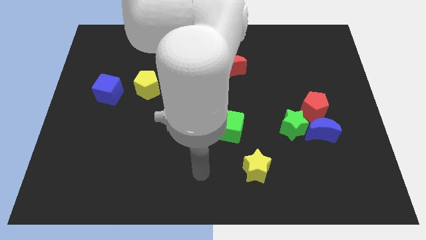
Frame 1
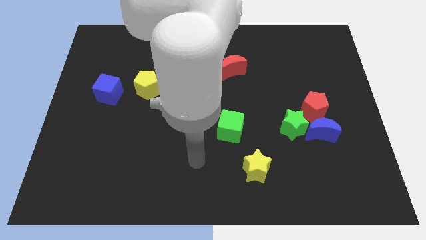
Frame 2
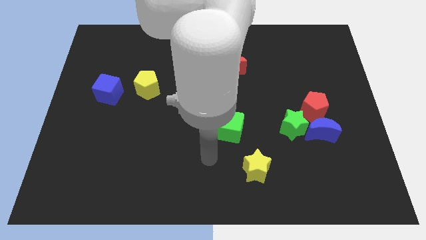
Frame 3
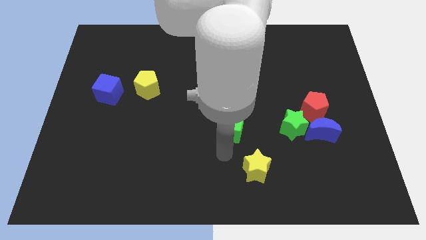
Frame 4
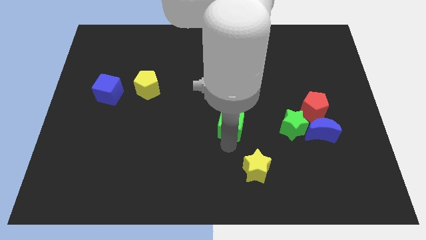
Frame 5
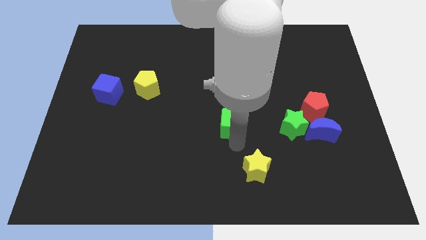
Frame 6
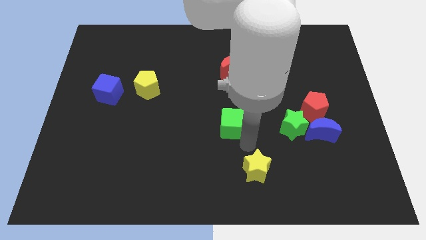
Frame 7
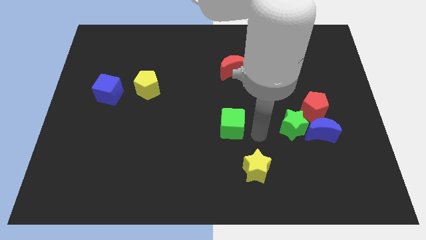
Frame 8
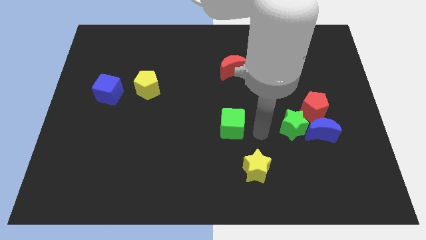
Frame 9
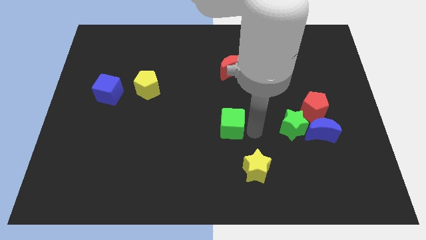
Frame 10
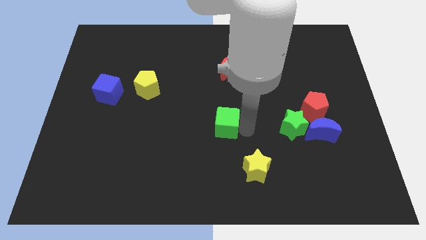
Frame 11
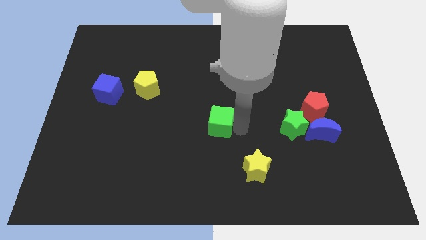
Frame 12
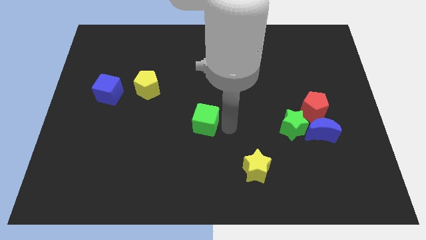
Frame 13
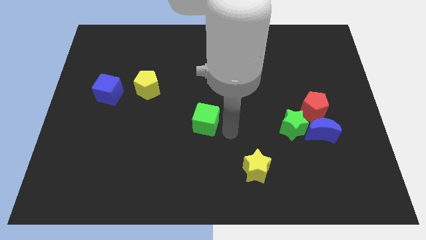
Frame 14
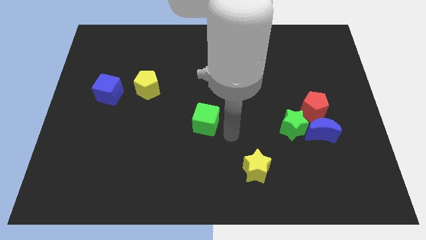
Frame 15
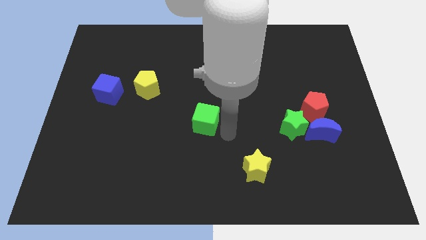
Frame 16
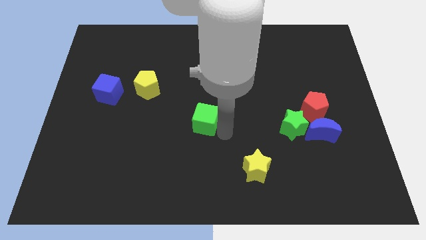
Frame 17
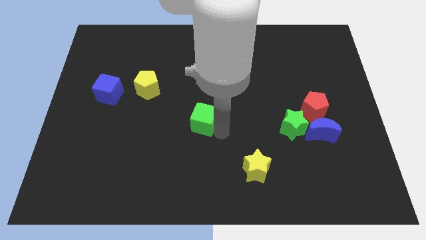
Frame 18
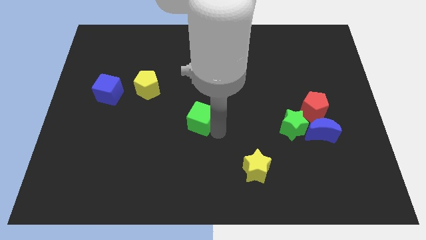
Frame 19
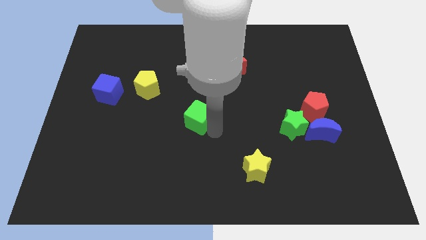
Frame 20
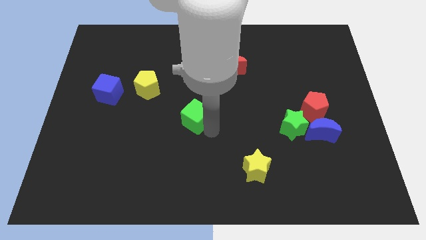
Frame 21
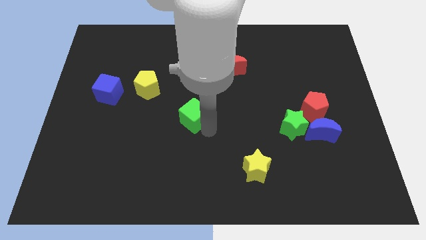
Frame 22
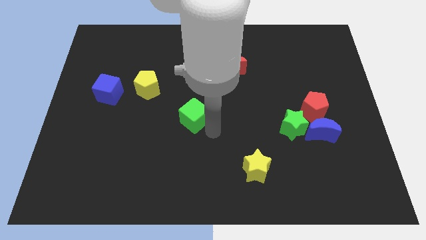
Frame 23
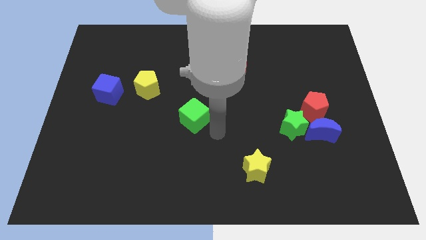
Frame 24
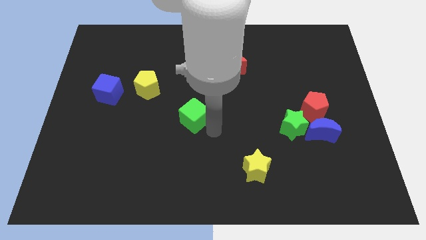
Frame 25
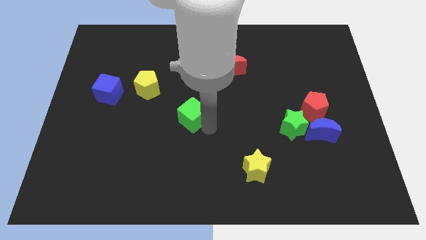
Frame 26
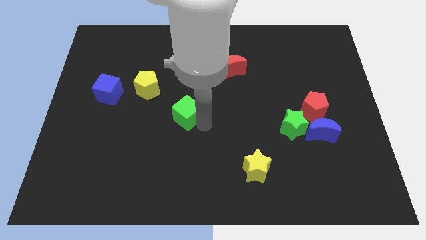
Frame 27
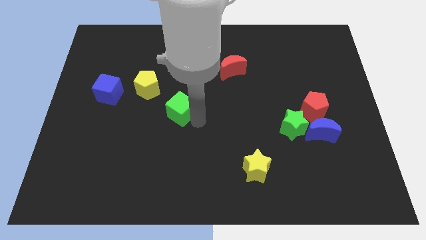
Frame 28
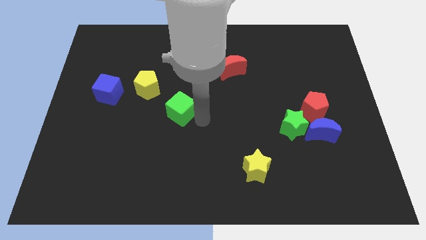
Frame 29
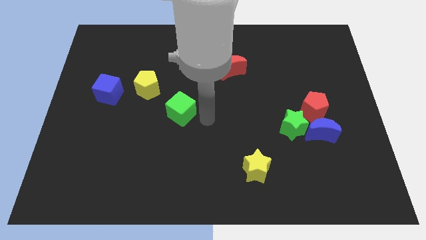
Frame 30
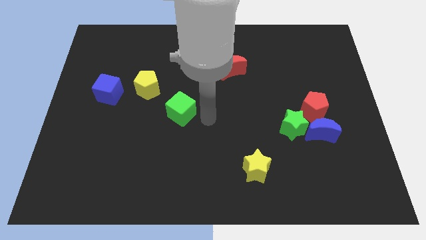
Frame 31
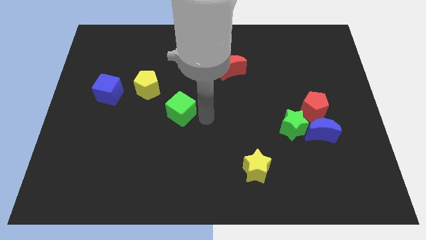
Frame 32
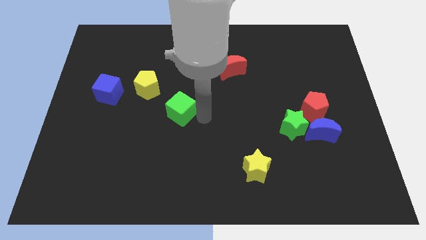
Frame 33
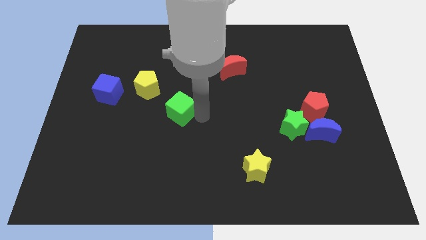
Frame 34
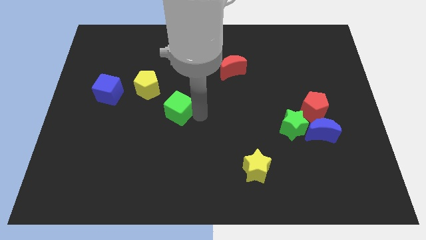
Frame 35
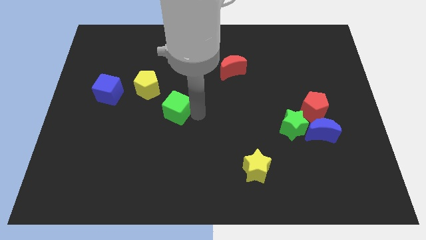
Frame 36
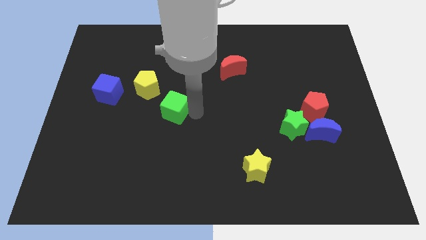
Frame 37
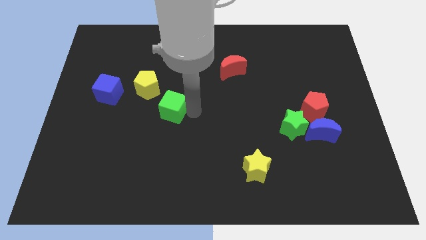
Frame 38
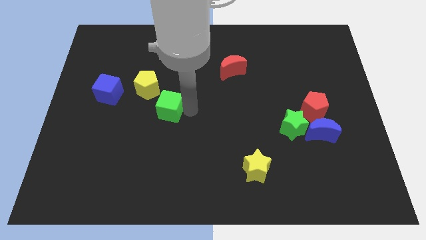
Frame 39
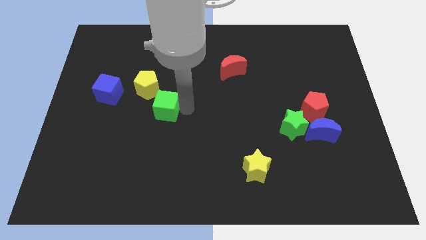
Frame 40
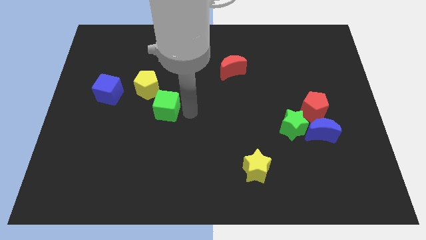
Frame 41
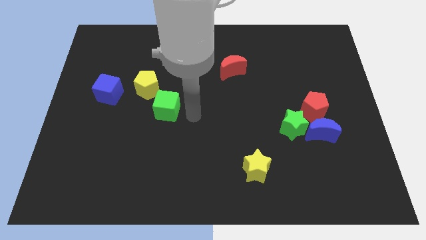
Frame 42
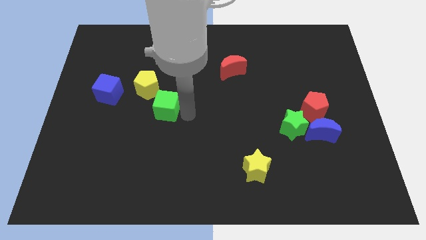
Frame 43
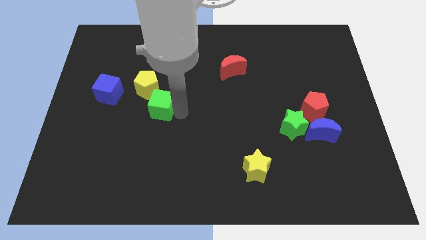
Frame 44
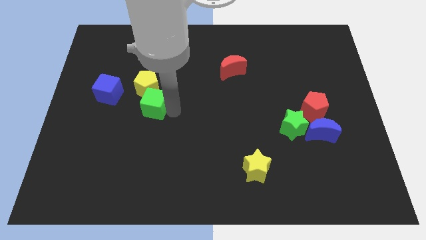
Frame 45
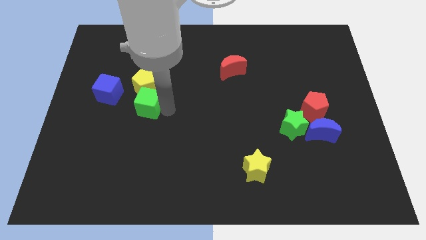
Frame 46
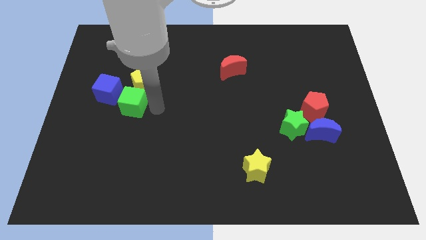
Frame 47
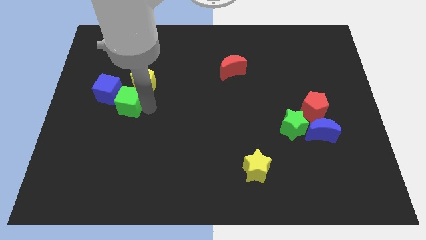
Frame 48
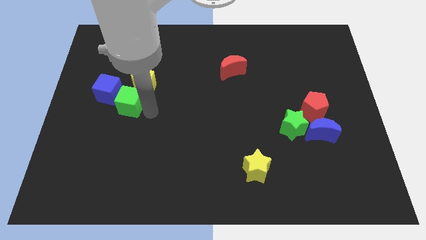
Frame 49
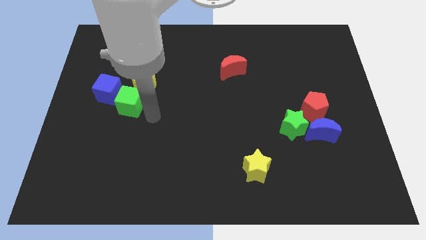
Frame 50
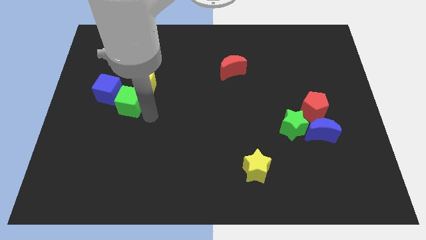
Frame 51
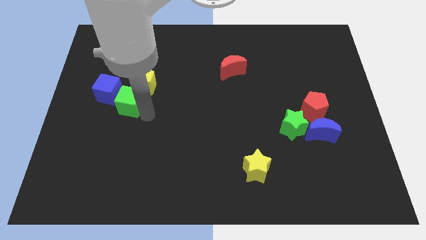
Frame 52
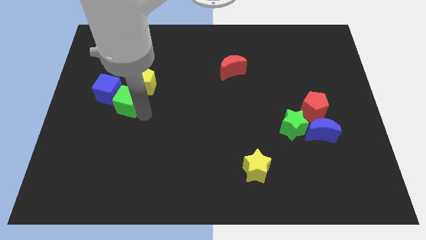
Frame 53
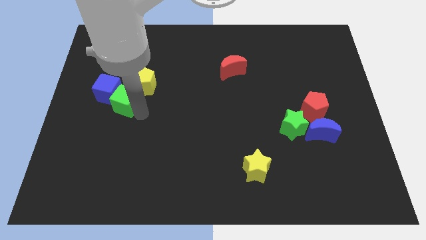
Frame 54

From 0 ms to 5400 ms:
push the green cube towards the blue cube

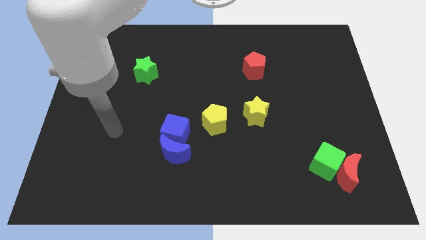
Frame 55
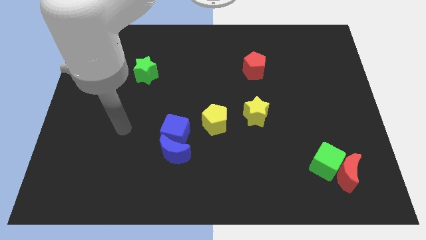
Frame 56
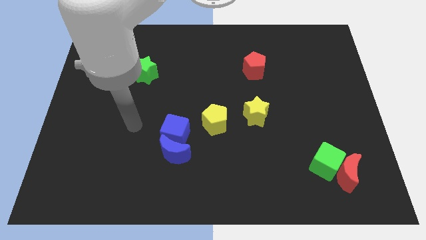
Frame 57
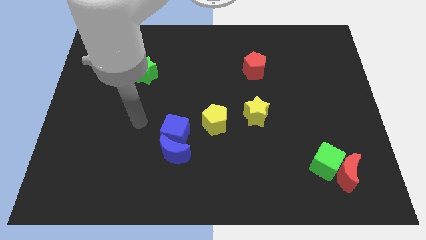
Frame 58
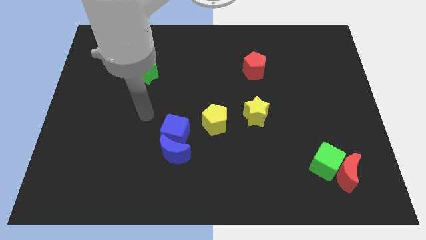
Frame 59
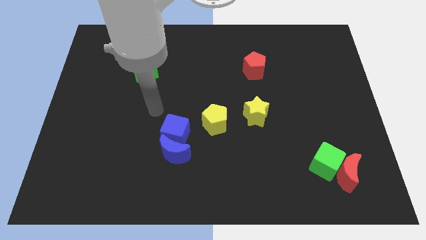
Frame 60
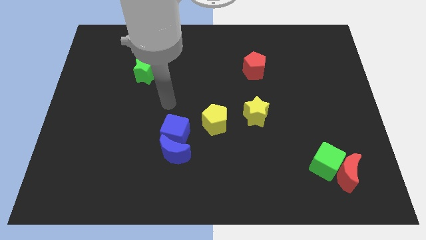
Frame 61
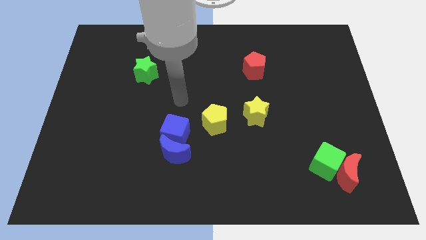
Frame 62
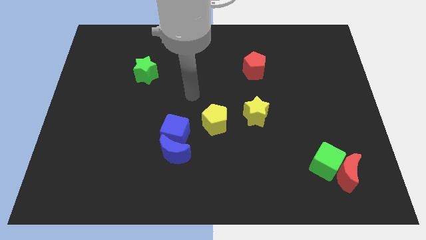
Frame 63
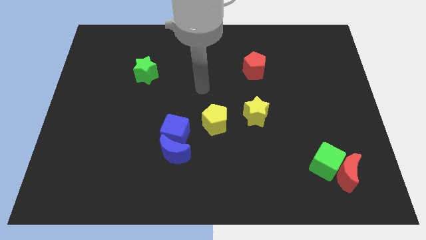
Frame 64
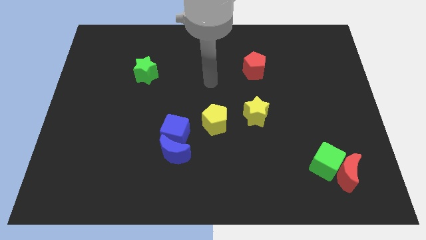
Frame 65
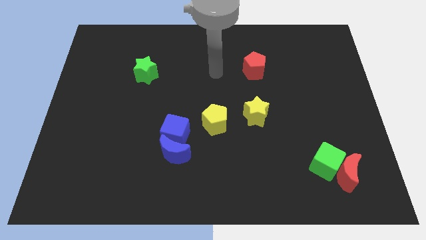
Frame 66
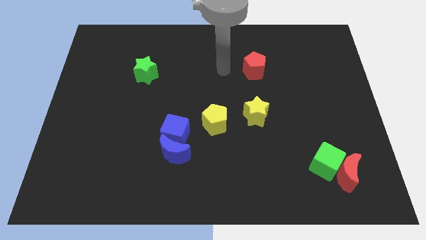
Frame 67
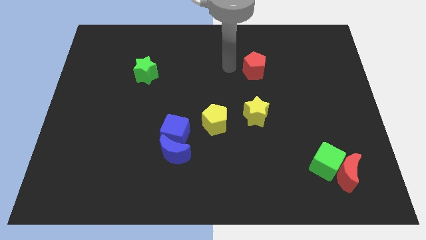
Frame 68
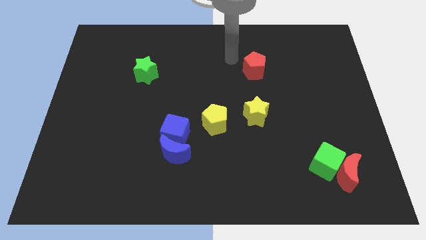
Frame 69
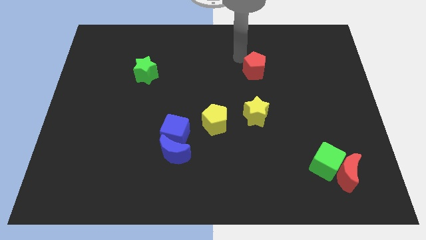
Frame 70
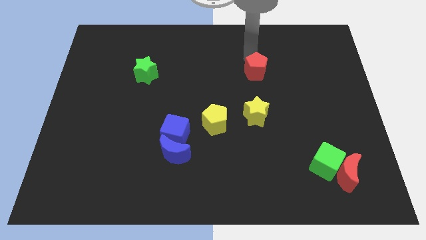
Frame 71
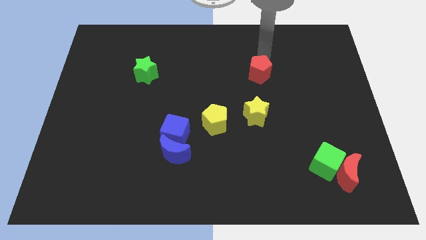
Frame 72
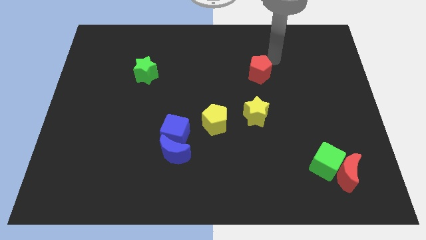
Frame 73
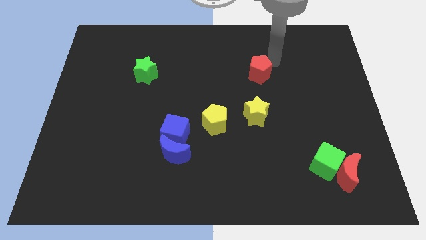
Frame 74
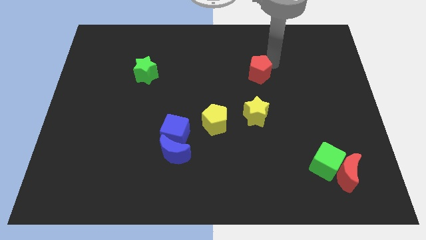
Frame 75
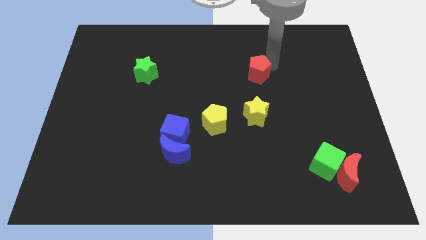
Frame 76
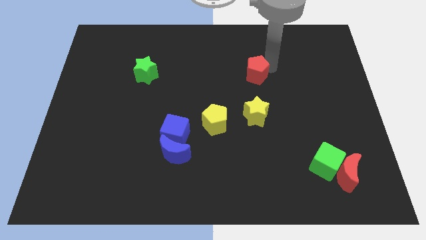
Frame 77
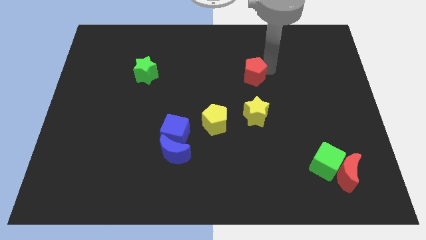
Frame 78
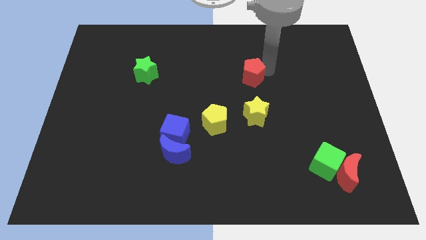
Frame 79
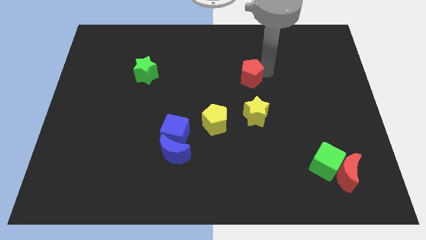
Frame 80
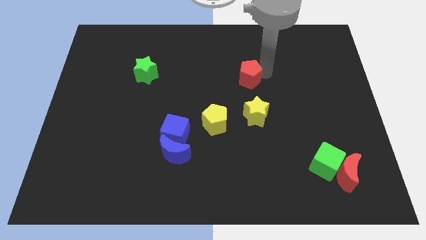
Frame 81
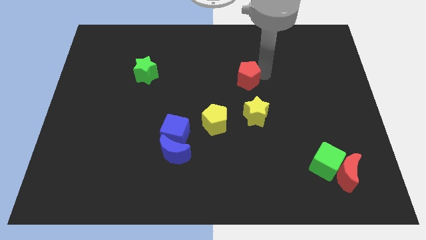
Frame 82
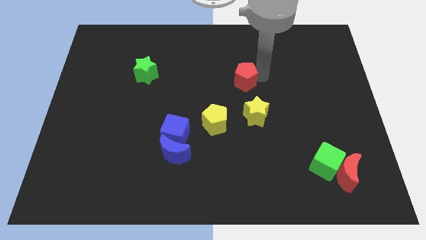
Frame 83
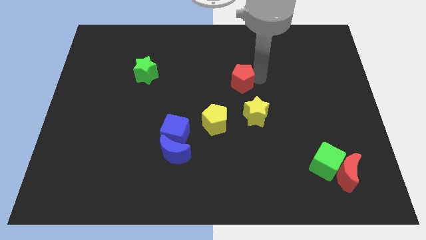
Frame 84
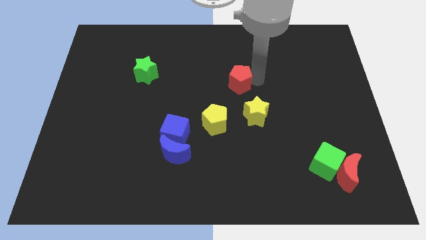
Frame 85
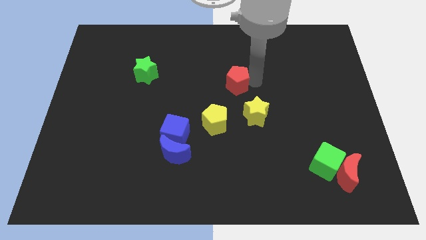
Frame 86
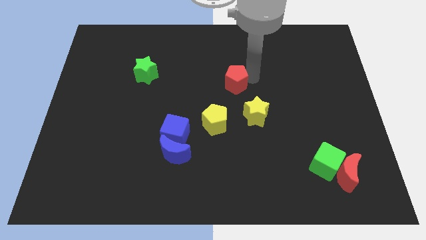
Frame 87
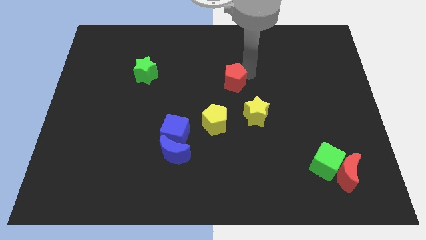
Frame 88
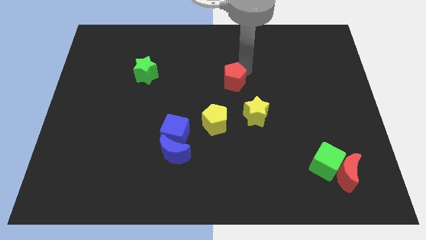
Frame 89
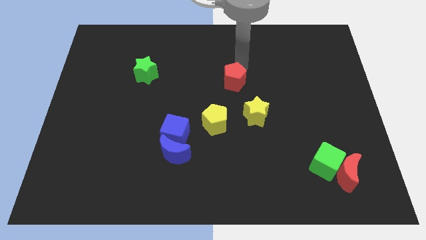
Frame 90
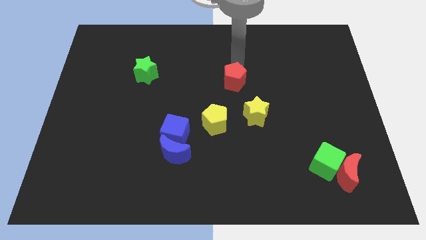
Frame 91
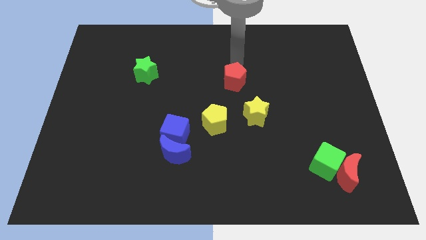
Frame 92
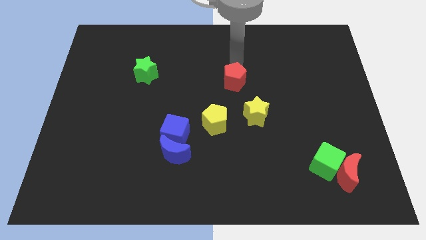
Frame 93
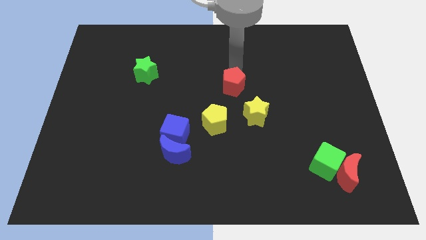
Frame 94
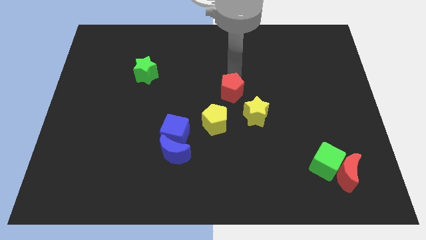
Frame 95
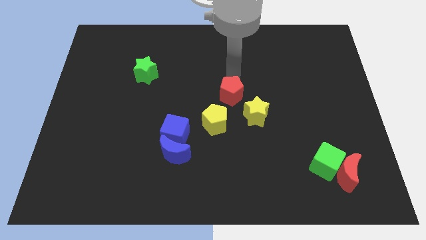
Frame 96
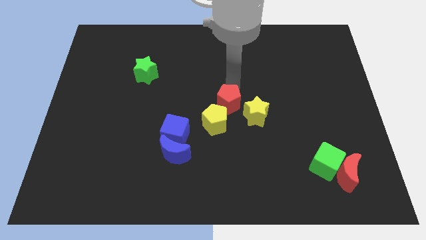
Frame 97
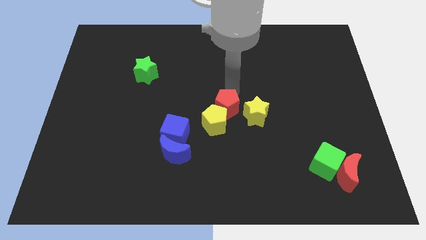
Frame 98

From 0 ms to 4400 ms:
push the red pentagon towards the yellow pentagon
